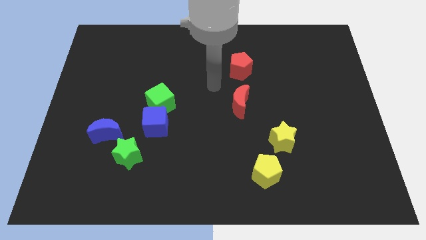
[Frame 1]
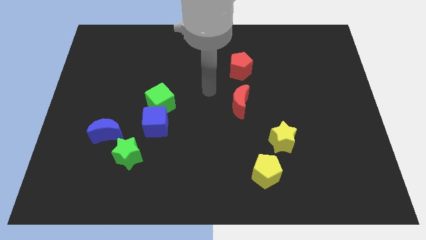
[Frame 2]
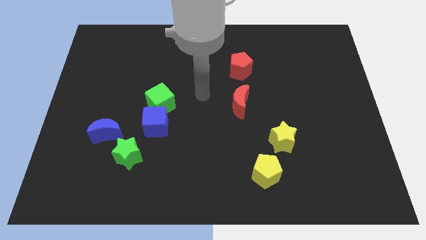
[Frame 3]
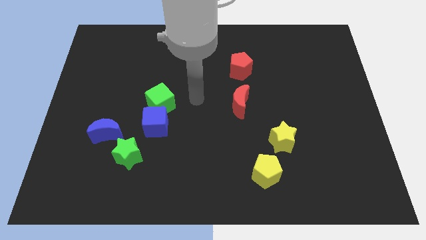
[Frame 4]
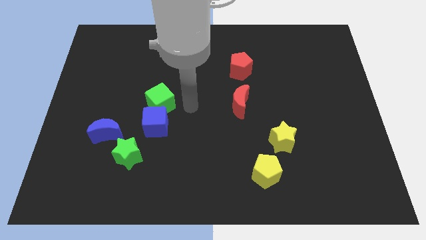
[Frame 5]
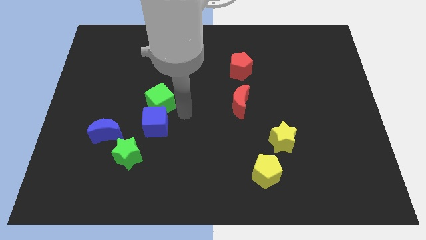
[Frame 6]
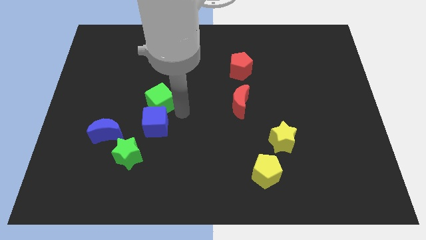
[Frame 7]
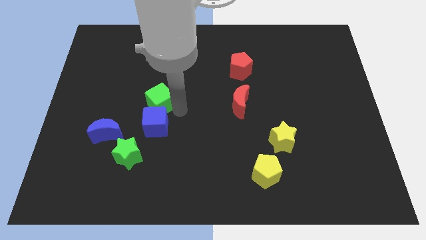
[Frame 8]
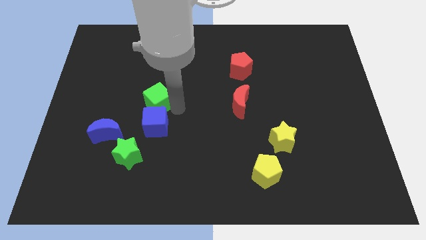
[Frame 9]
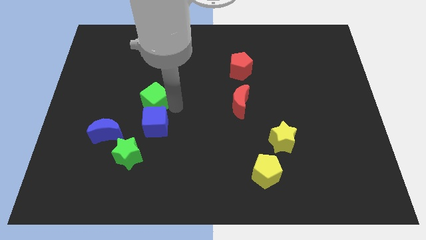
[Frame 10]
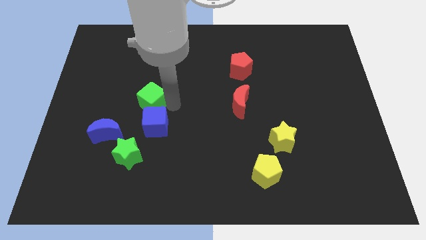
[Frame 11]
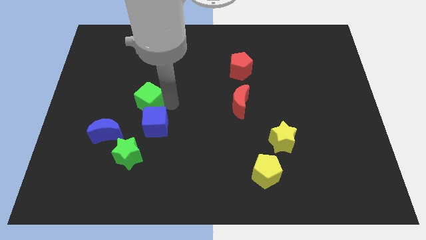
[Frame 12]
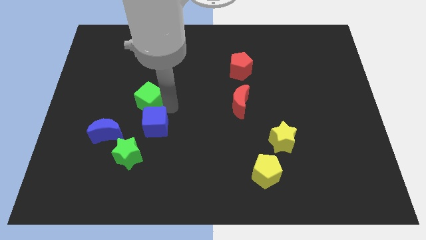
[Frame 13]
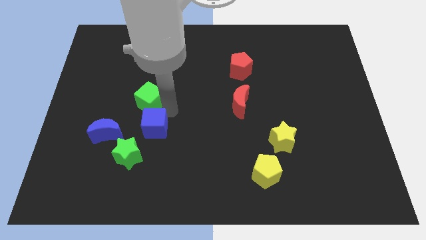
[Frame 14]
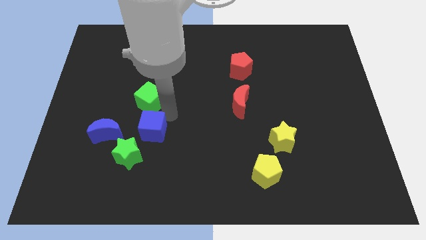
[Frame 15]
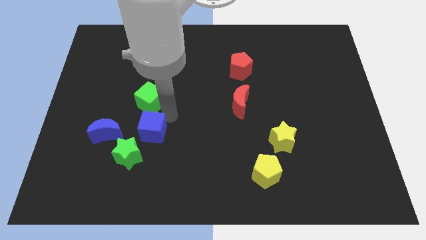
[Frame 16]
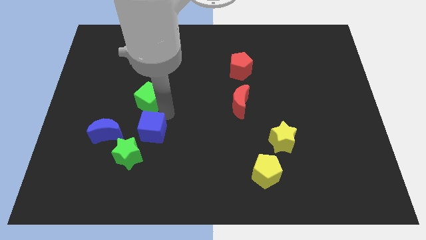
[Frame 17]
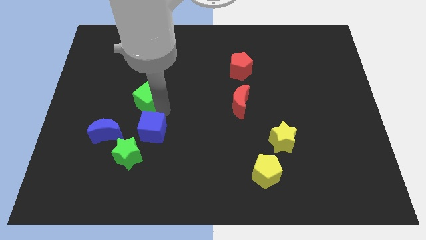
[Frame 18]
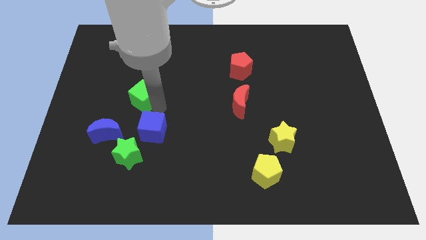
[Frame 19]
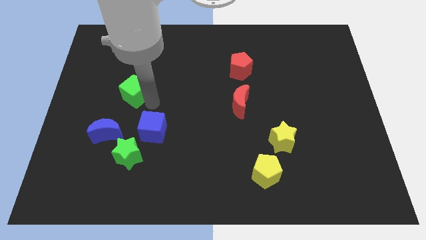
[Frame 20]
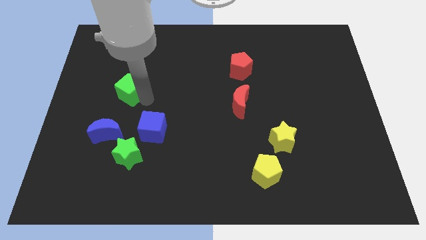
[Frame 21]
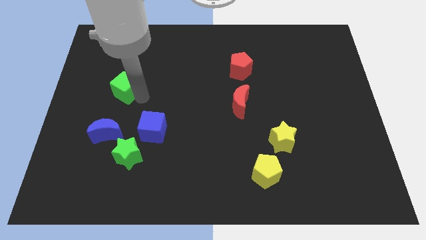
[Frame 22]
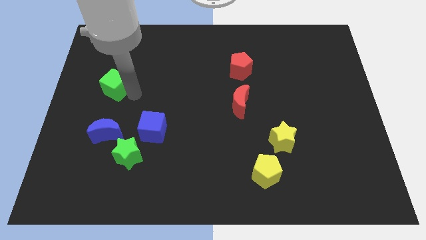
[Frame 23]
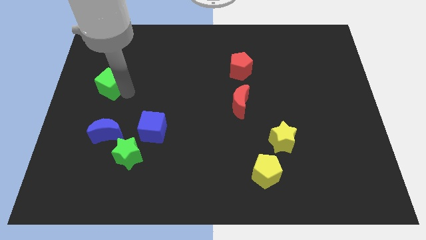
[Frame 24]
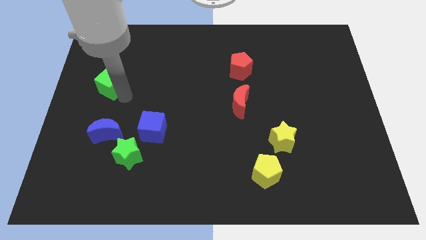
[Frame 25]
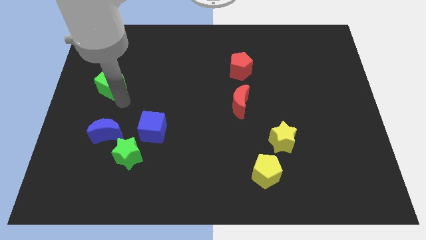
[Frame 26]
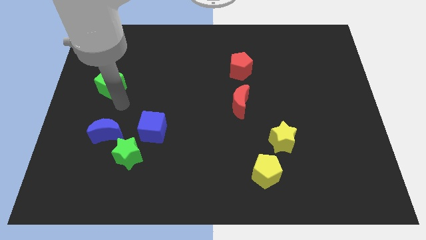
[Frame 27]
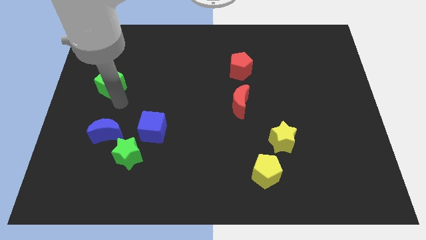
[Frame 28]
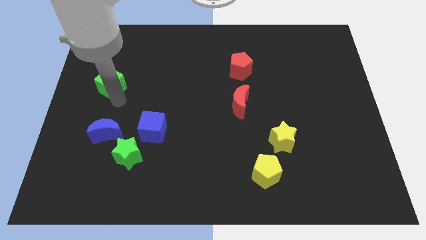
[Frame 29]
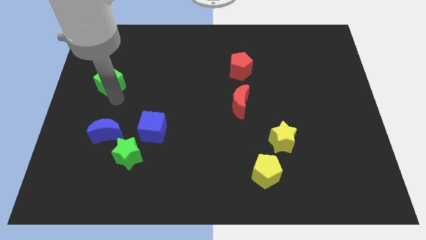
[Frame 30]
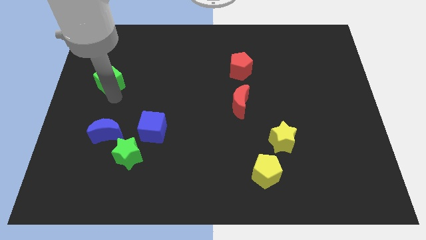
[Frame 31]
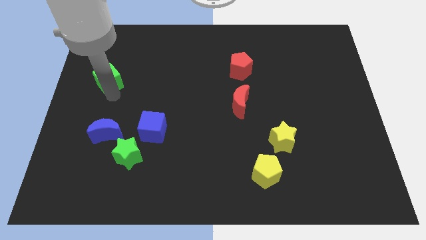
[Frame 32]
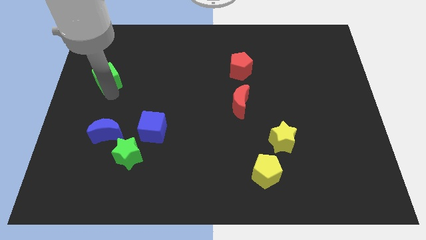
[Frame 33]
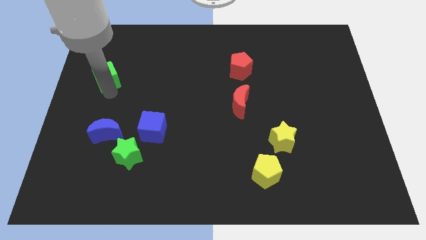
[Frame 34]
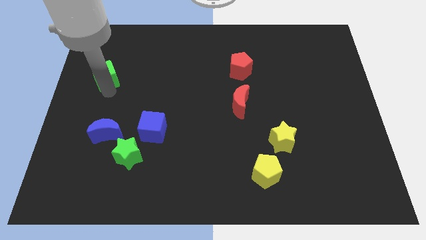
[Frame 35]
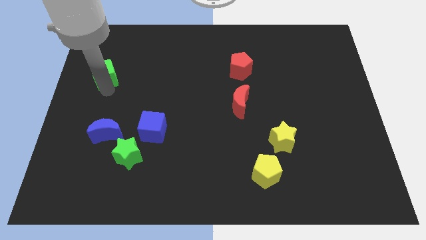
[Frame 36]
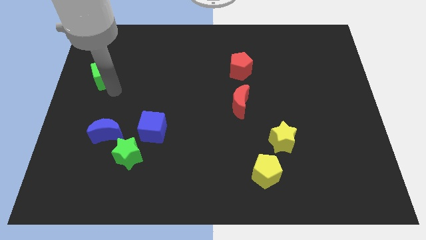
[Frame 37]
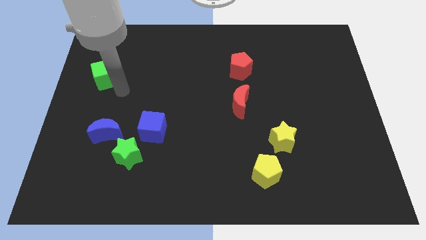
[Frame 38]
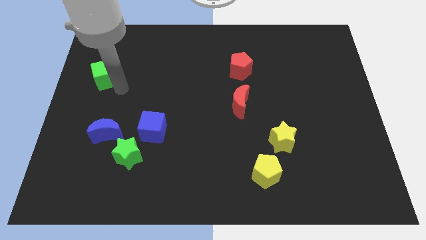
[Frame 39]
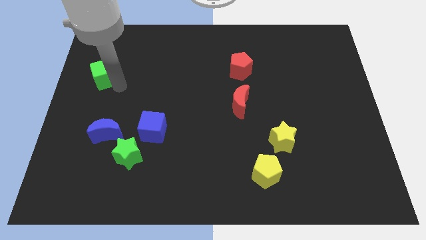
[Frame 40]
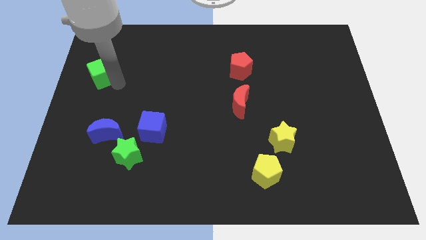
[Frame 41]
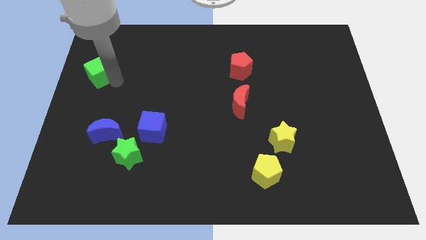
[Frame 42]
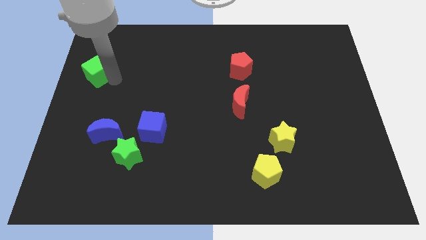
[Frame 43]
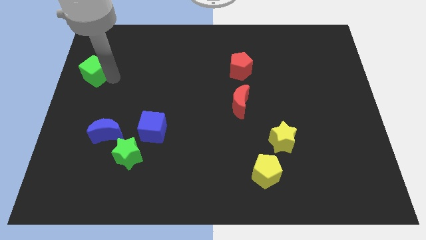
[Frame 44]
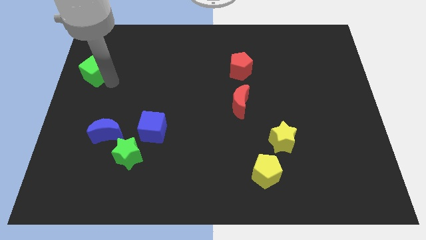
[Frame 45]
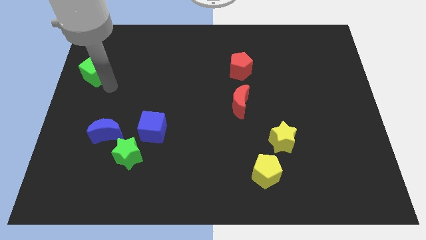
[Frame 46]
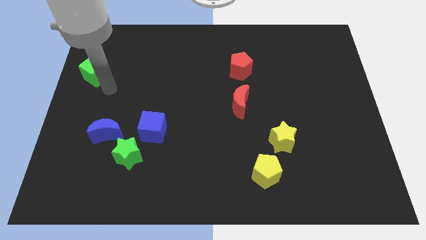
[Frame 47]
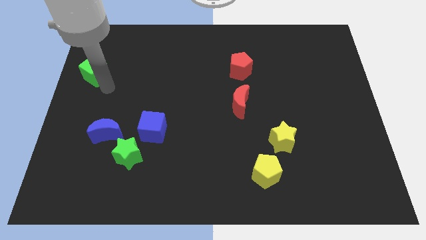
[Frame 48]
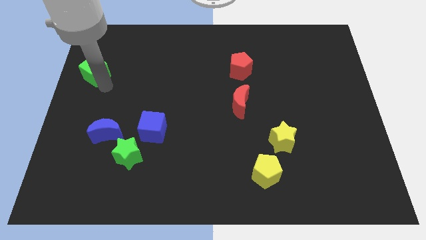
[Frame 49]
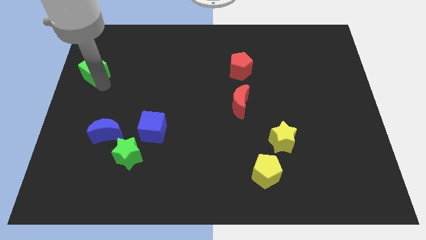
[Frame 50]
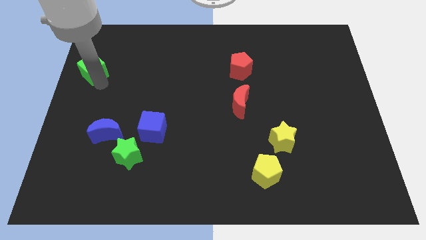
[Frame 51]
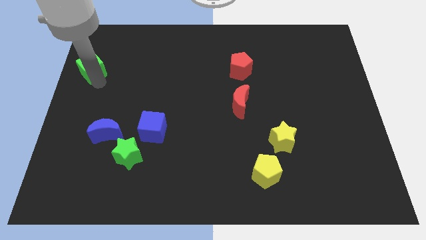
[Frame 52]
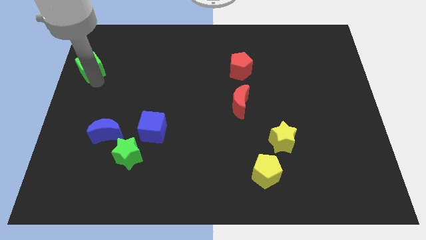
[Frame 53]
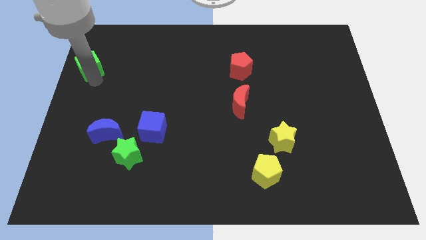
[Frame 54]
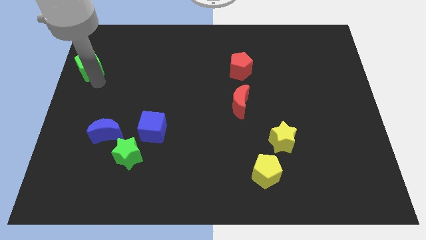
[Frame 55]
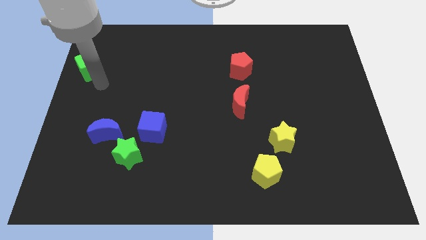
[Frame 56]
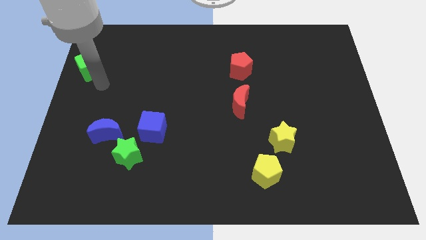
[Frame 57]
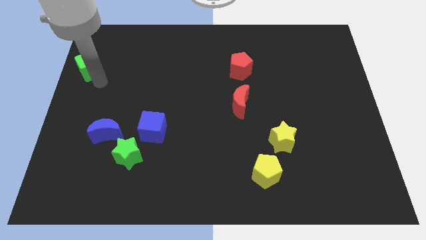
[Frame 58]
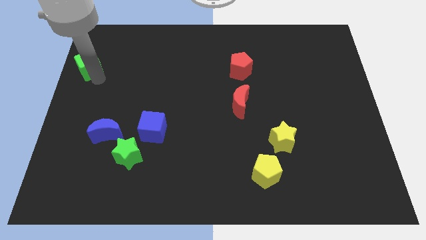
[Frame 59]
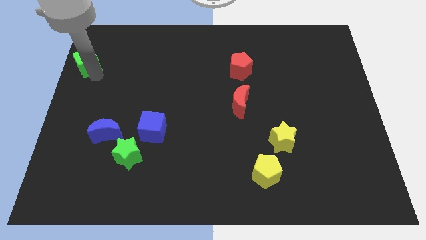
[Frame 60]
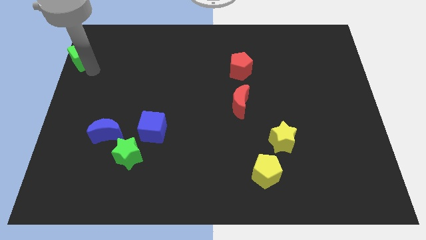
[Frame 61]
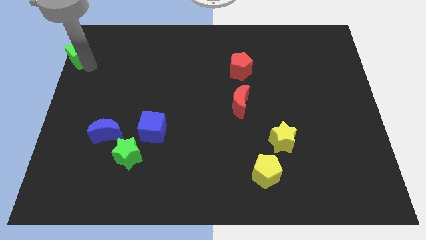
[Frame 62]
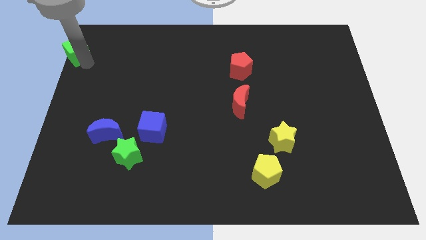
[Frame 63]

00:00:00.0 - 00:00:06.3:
move the green cube to the top left corner
